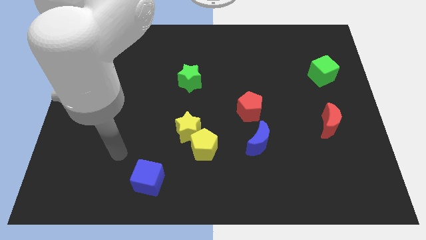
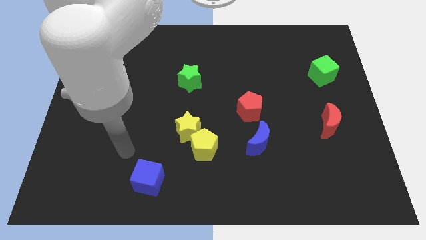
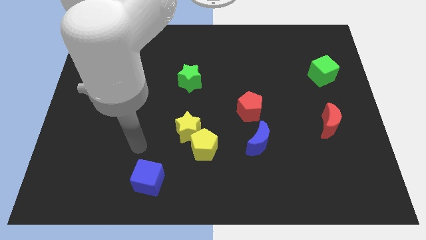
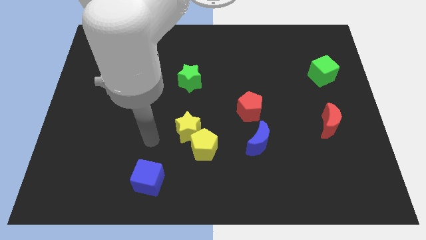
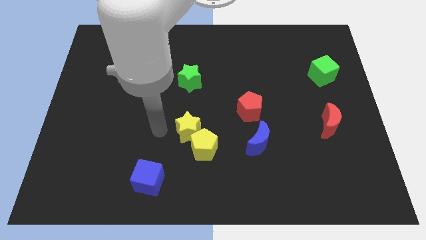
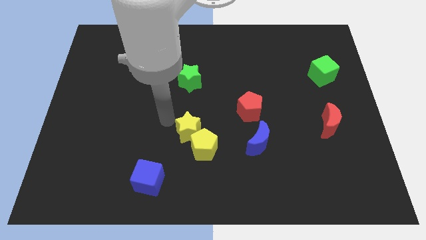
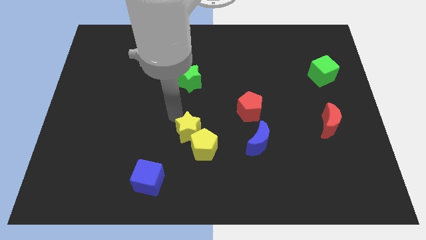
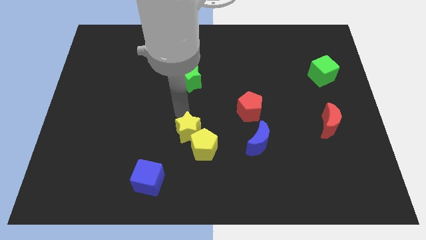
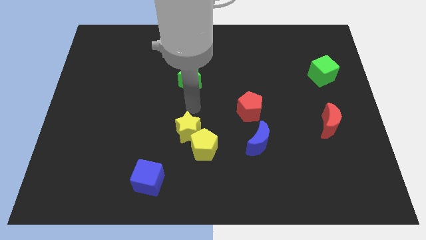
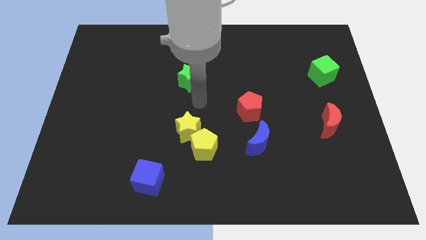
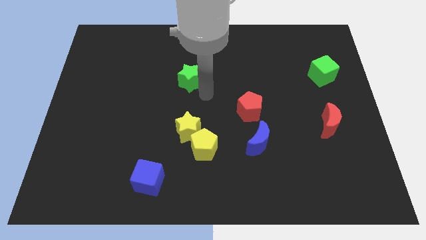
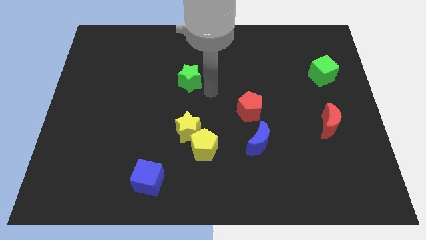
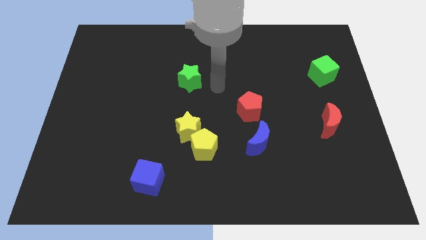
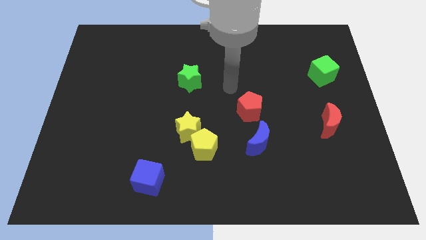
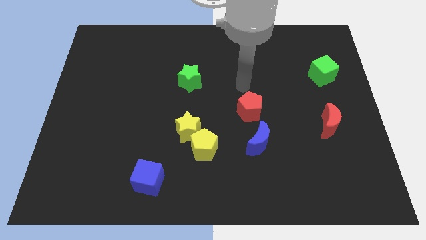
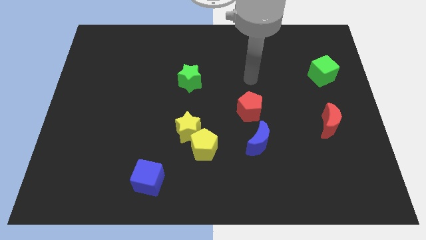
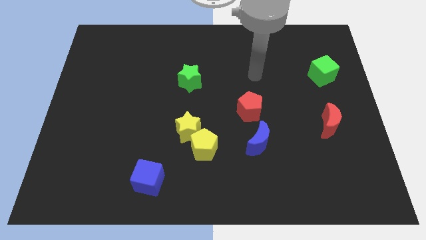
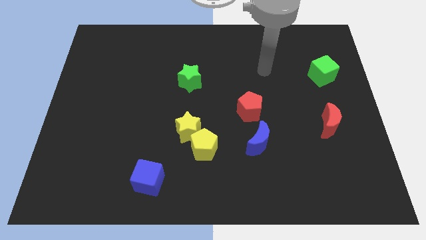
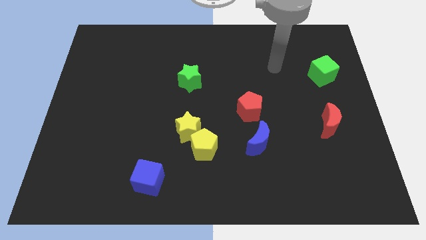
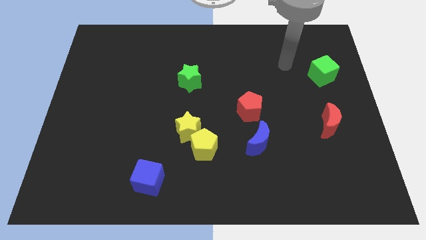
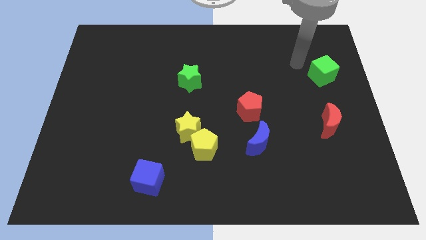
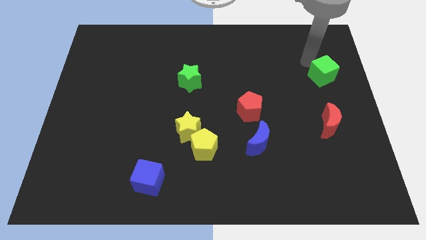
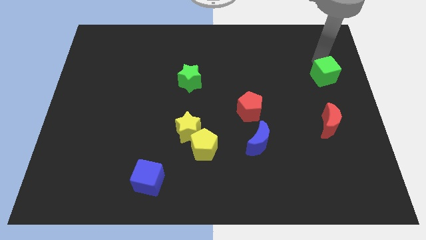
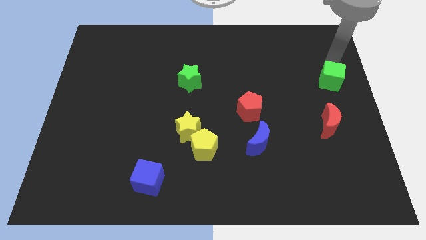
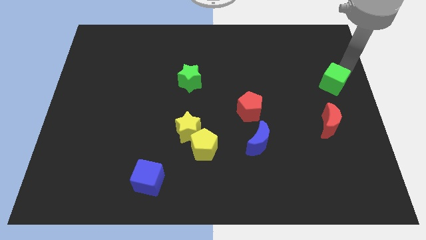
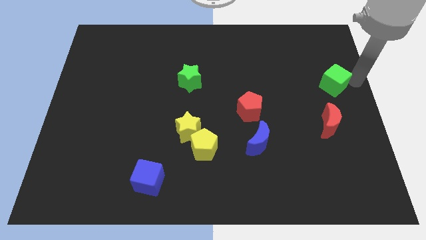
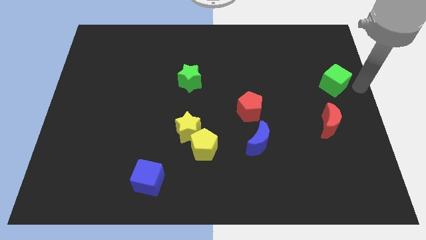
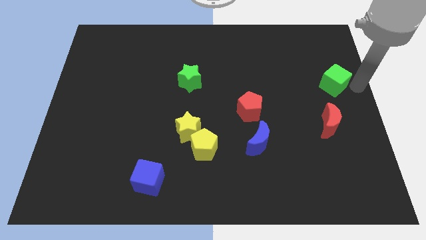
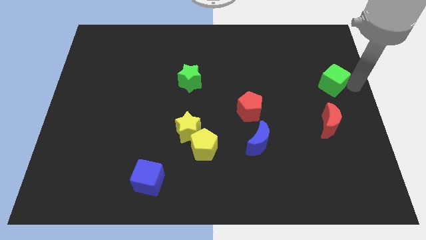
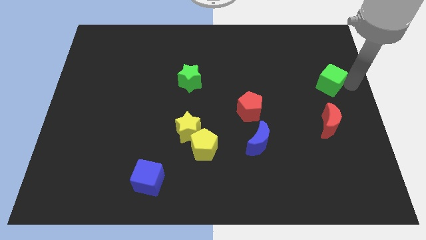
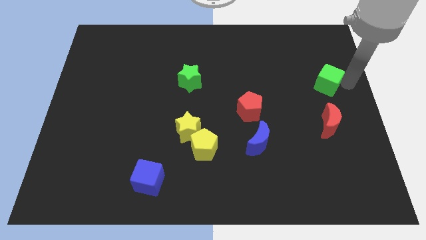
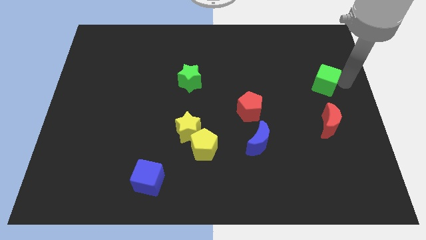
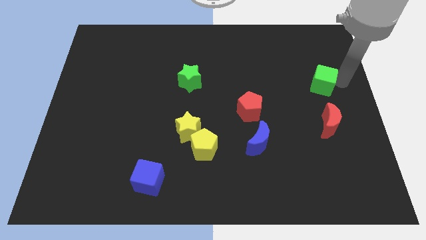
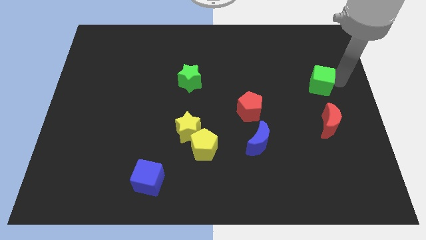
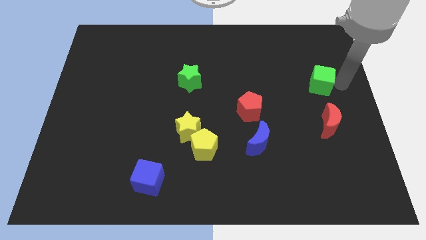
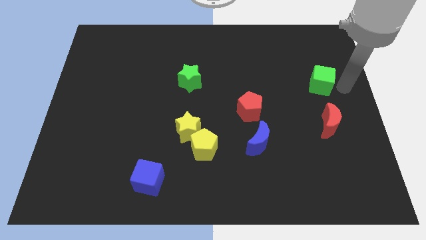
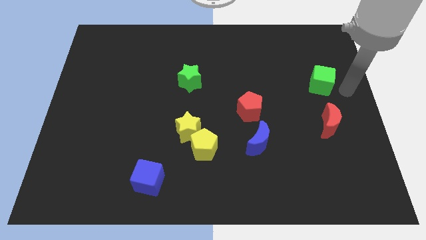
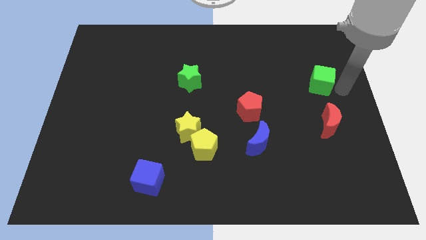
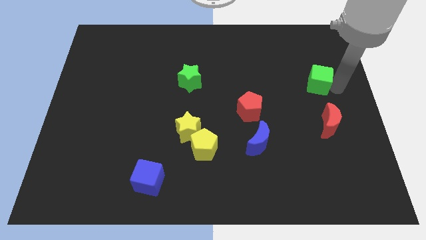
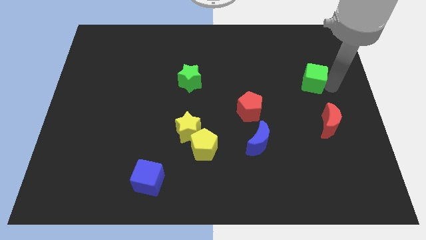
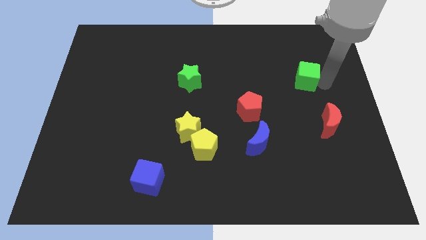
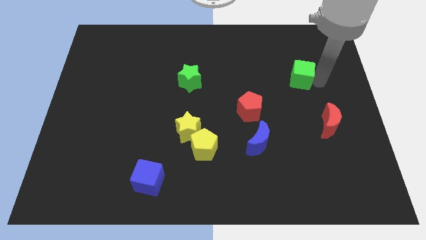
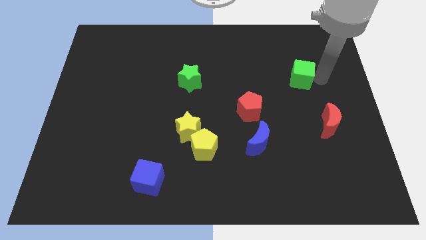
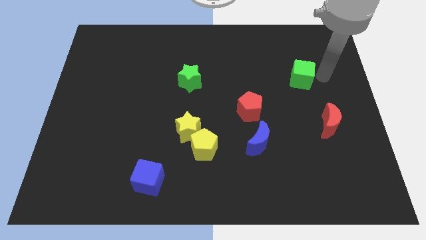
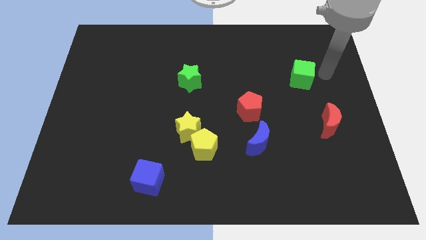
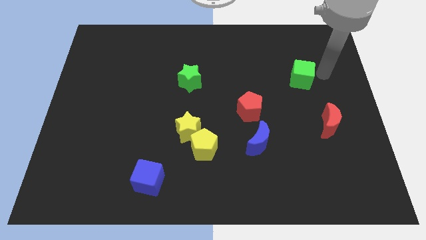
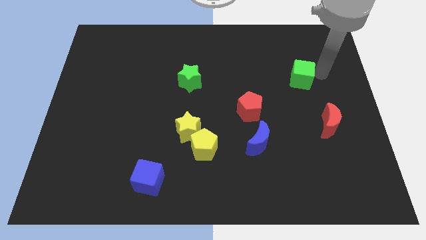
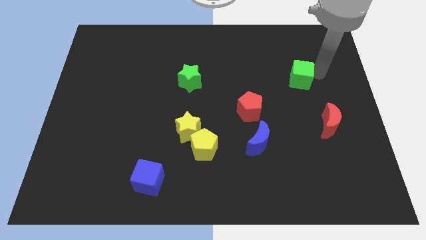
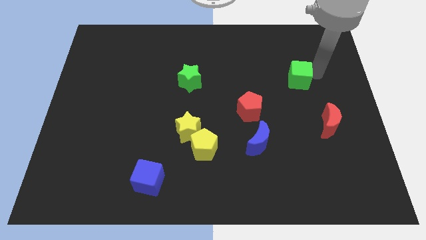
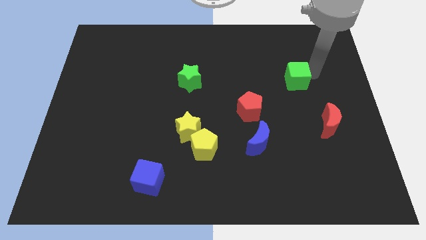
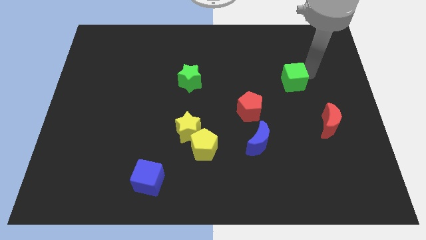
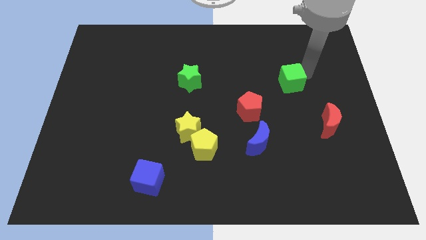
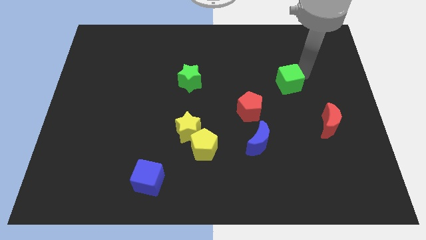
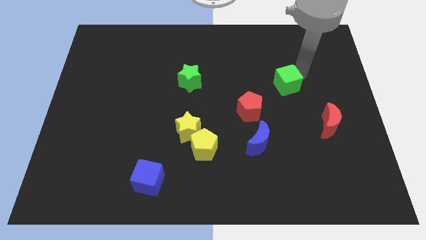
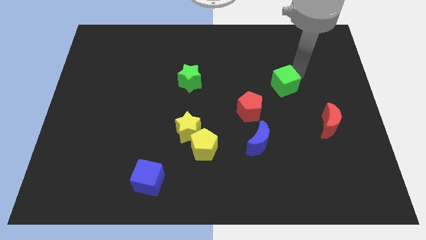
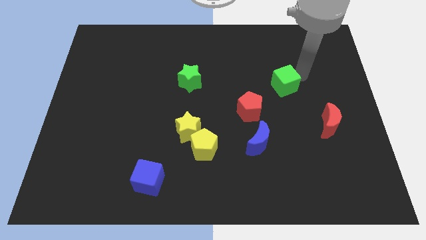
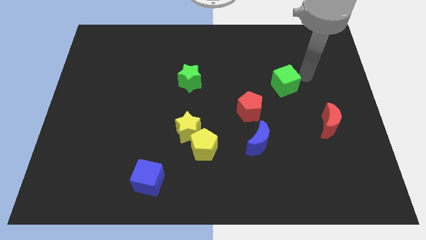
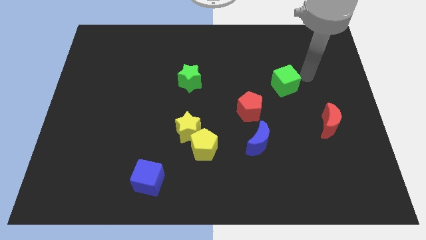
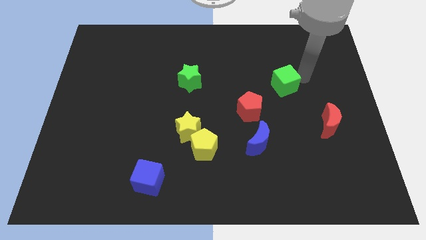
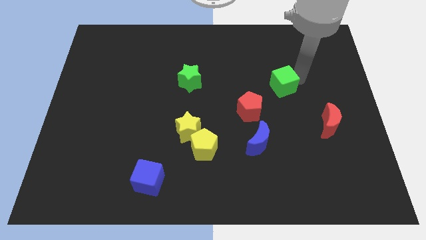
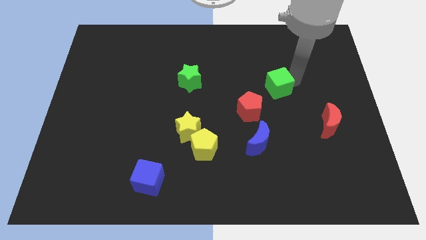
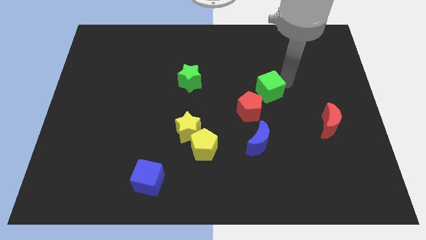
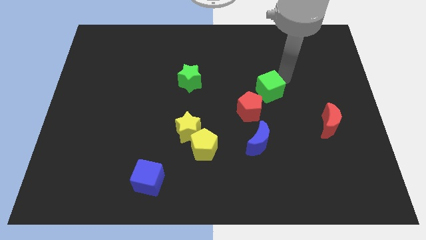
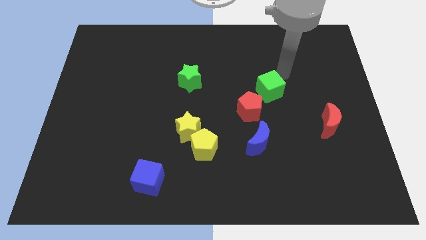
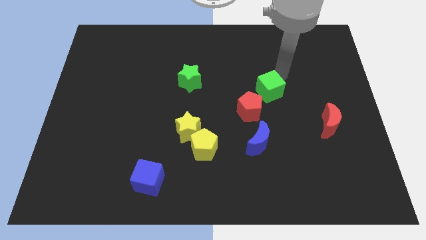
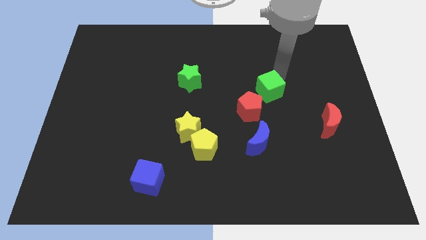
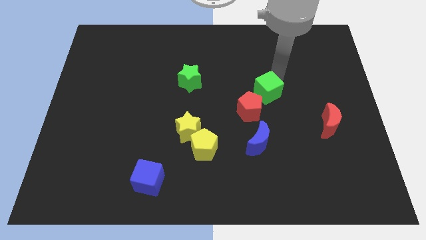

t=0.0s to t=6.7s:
push the green cube above the blue moon
